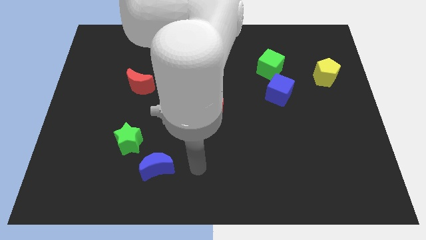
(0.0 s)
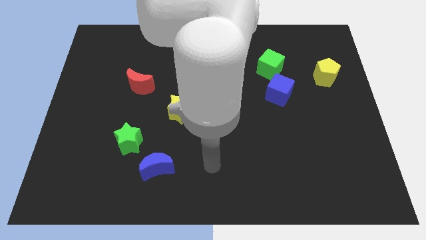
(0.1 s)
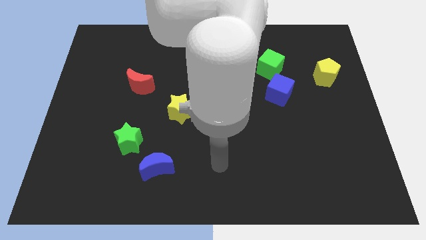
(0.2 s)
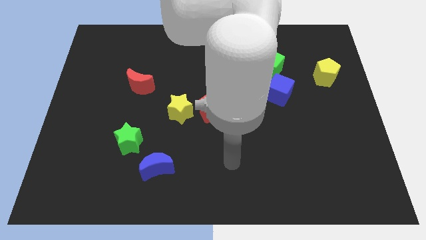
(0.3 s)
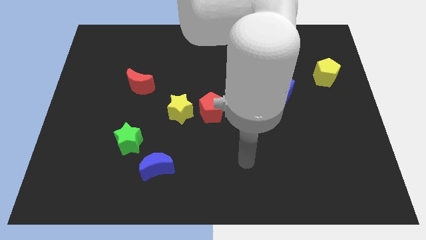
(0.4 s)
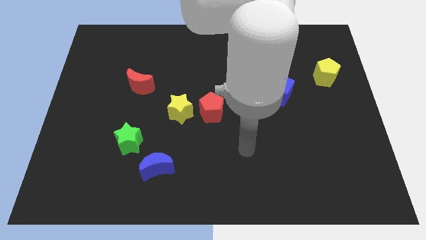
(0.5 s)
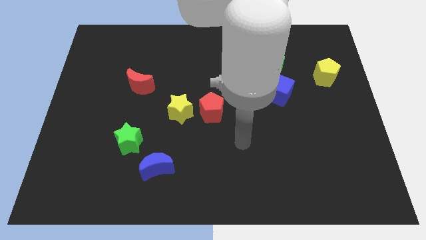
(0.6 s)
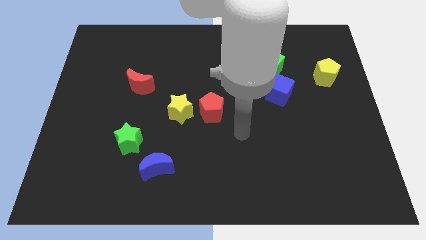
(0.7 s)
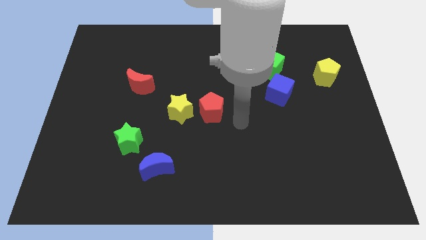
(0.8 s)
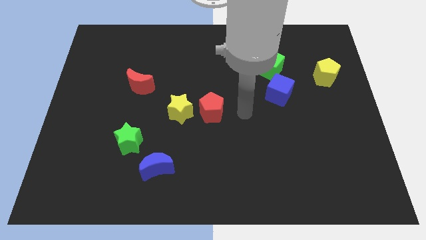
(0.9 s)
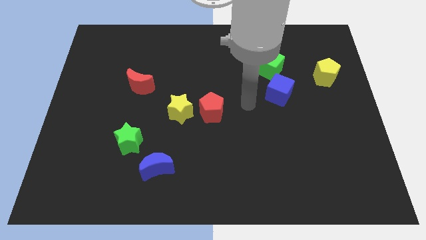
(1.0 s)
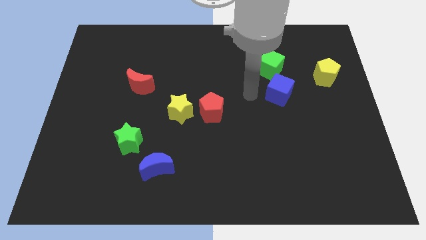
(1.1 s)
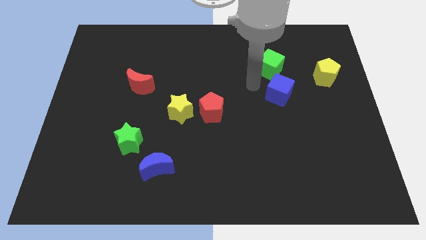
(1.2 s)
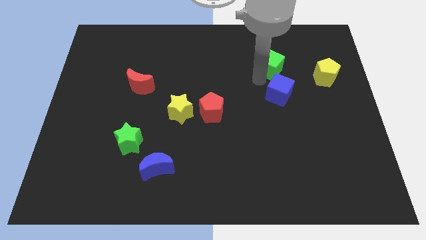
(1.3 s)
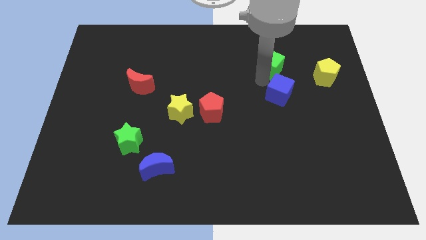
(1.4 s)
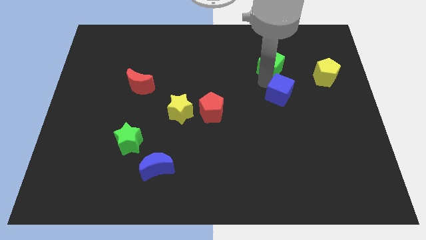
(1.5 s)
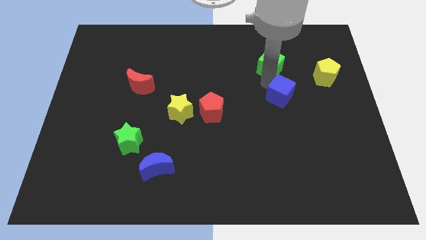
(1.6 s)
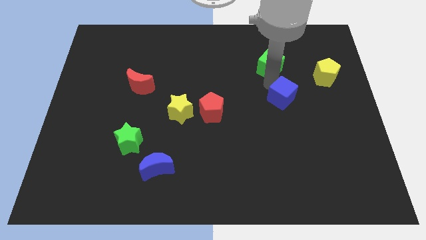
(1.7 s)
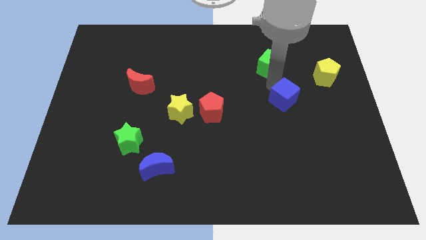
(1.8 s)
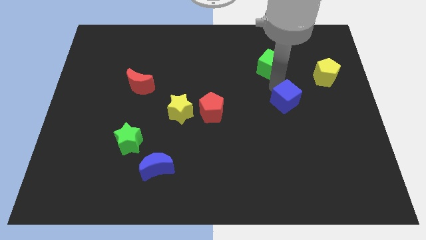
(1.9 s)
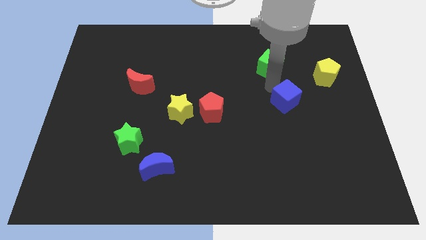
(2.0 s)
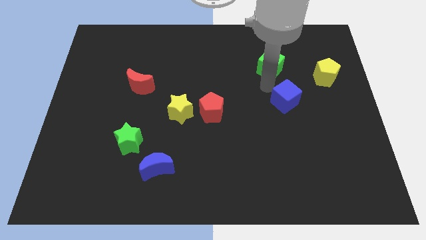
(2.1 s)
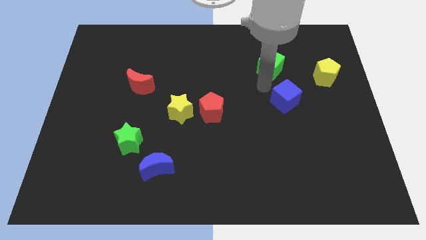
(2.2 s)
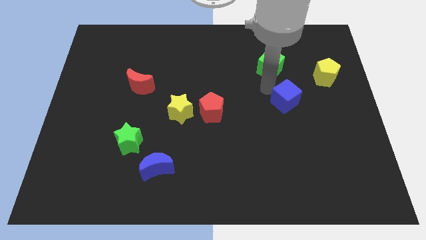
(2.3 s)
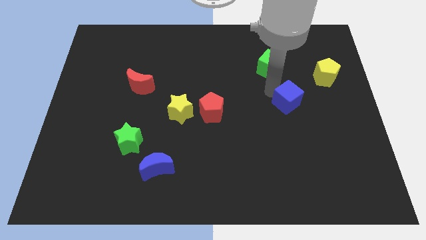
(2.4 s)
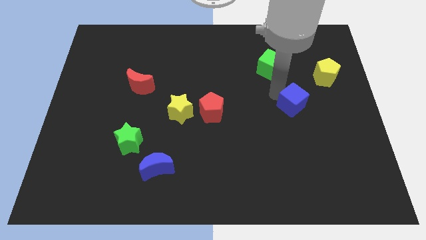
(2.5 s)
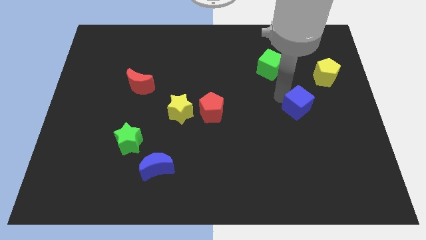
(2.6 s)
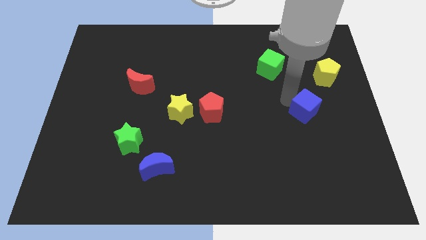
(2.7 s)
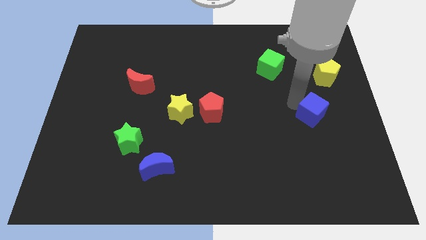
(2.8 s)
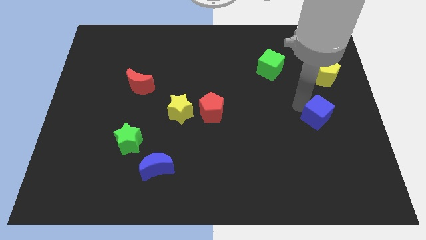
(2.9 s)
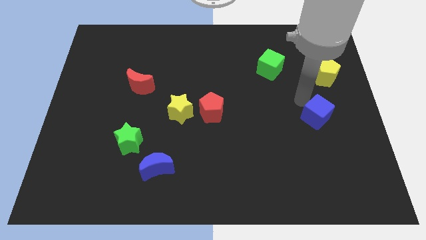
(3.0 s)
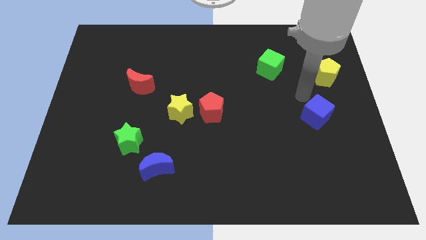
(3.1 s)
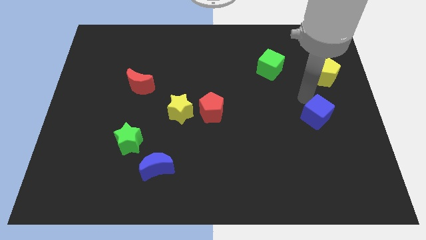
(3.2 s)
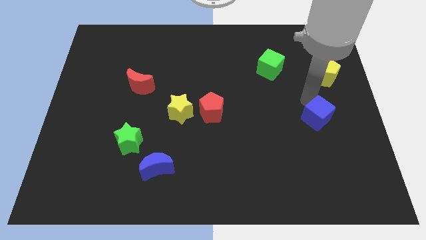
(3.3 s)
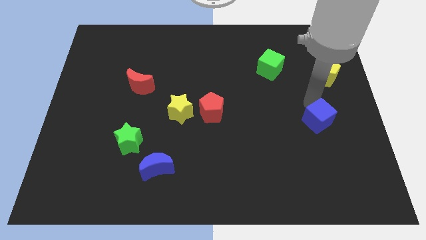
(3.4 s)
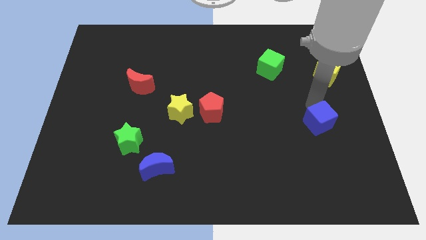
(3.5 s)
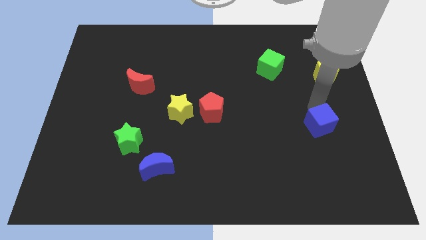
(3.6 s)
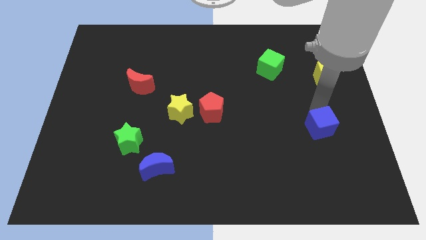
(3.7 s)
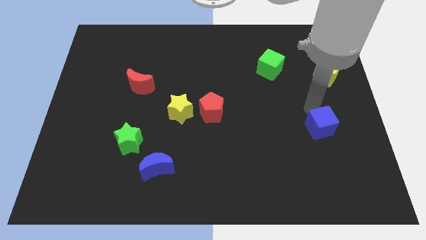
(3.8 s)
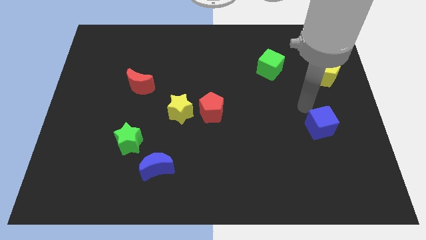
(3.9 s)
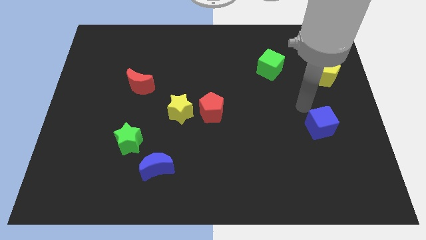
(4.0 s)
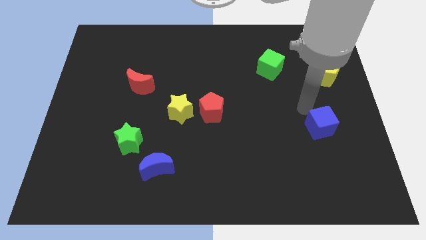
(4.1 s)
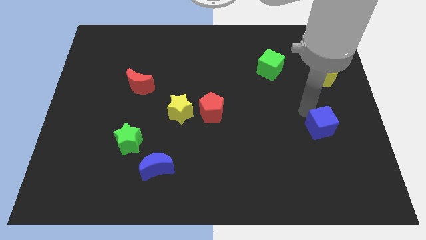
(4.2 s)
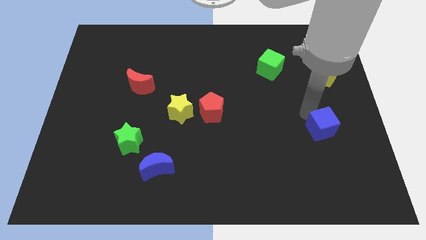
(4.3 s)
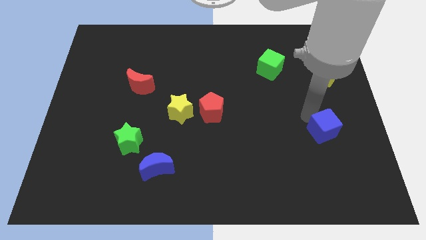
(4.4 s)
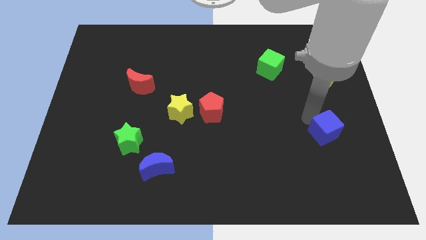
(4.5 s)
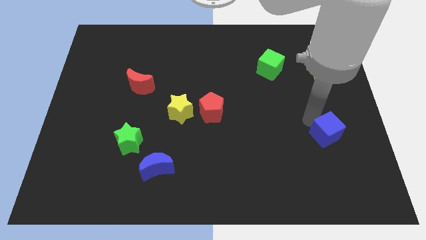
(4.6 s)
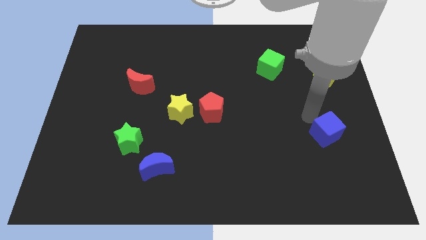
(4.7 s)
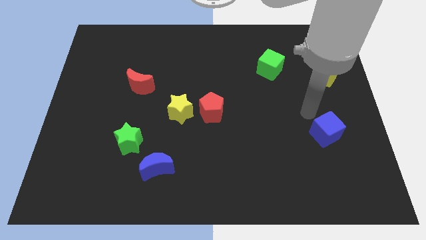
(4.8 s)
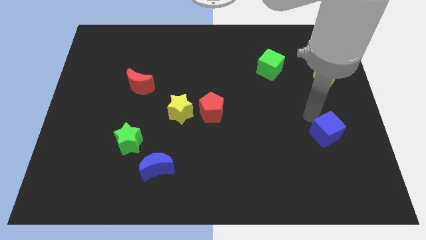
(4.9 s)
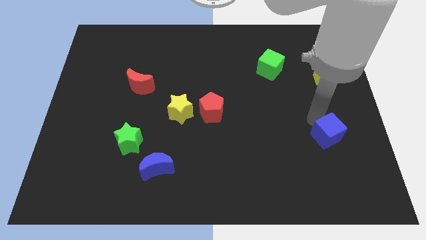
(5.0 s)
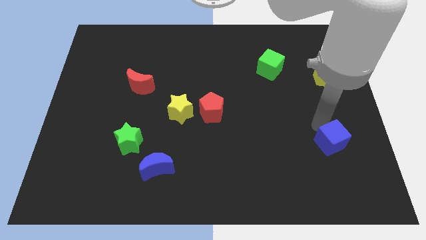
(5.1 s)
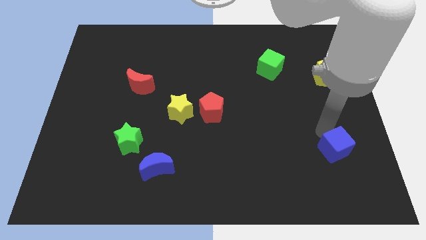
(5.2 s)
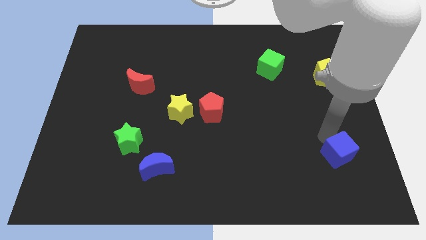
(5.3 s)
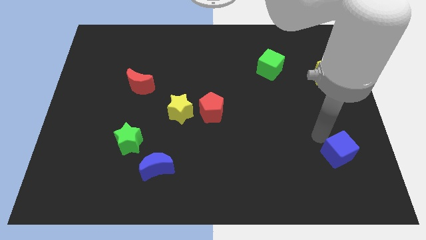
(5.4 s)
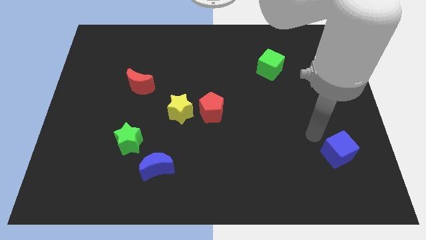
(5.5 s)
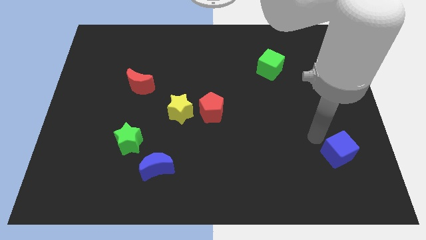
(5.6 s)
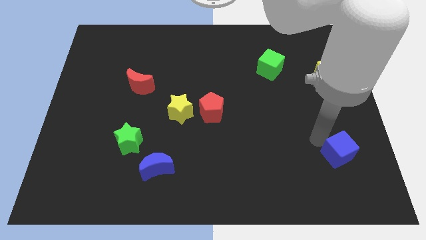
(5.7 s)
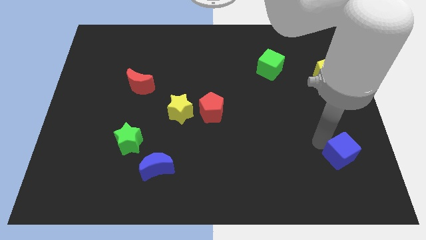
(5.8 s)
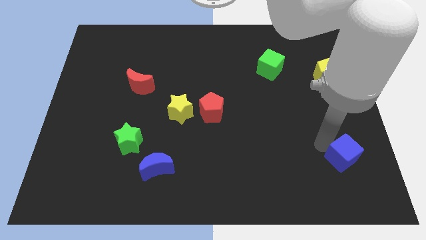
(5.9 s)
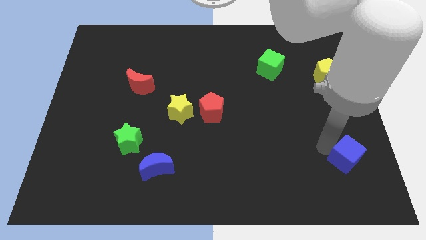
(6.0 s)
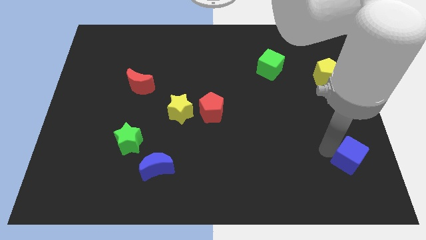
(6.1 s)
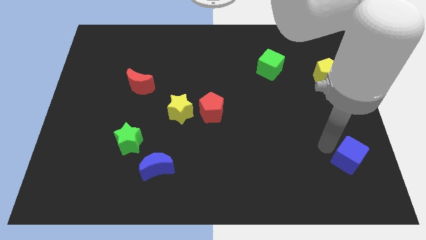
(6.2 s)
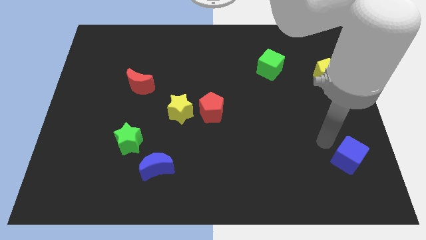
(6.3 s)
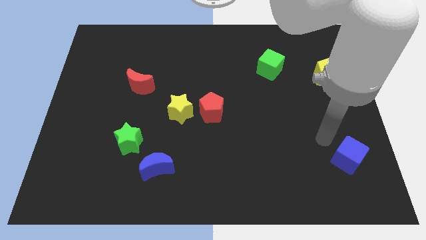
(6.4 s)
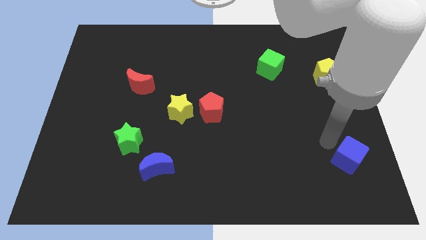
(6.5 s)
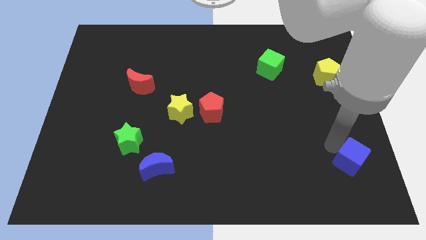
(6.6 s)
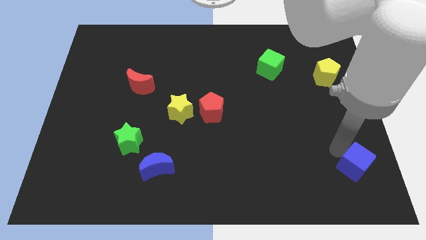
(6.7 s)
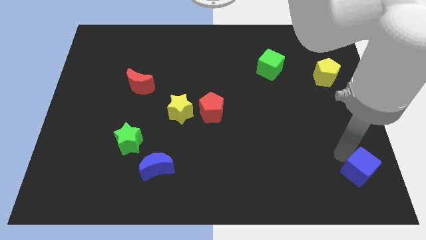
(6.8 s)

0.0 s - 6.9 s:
push the blue cube to the bottom right corner

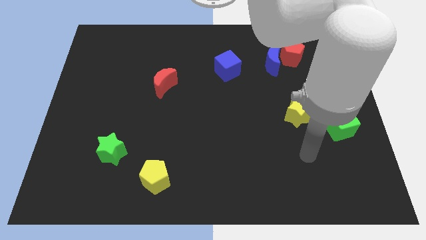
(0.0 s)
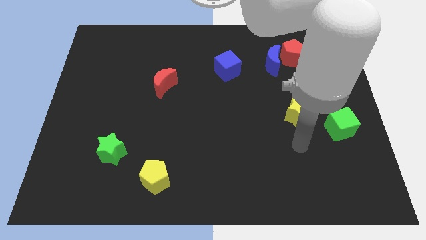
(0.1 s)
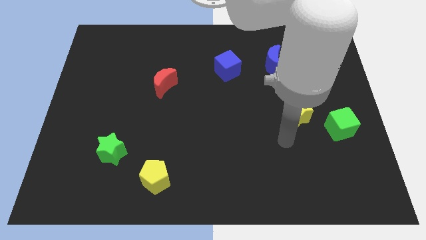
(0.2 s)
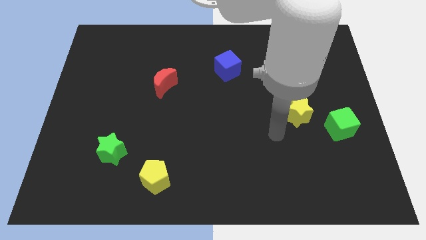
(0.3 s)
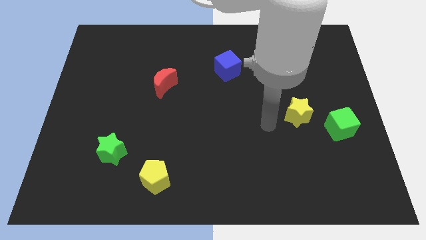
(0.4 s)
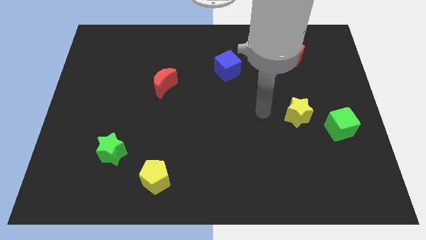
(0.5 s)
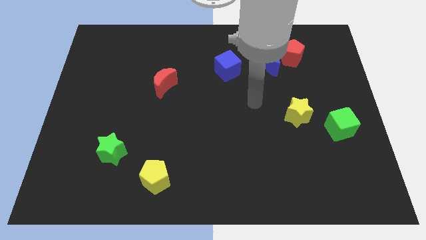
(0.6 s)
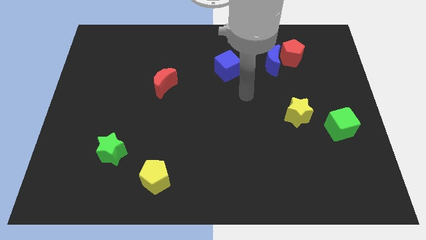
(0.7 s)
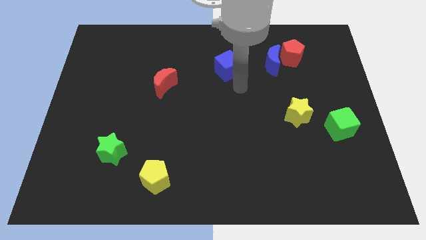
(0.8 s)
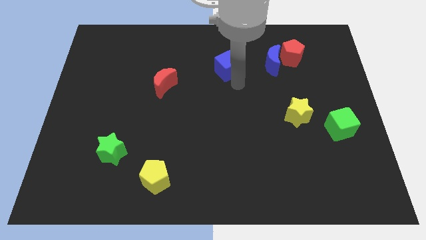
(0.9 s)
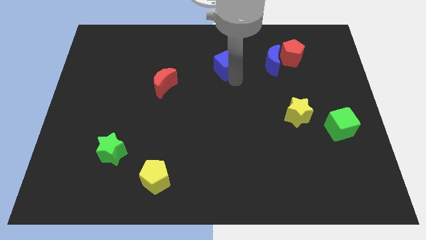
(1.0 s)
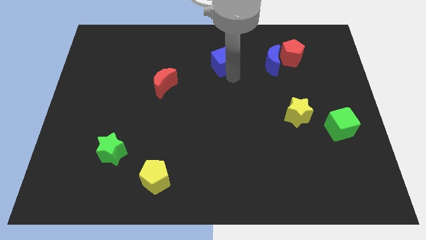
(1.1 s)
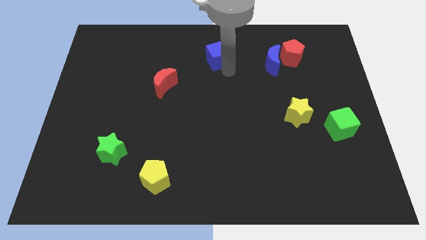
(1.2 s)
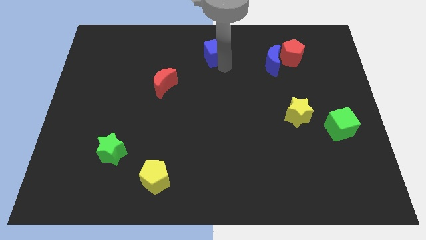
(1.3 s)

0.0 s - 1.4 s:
put the blue cube to the top side
